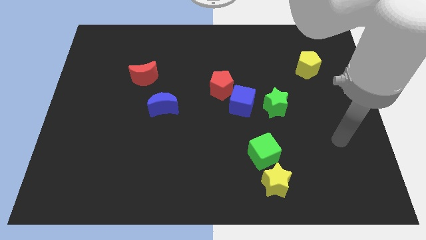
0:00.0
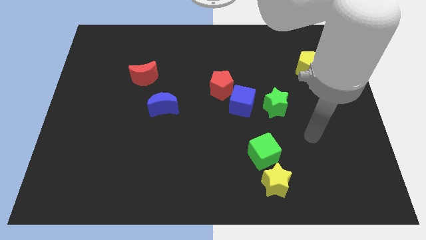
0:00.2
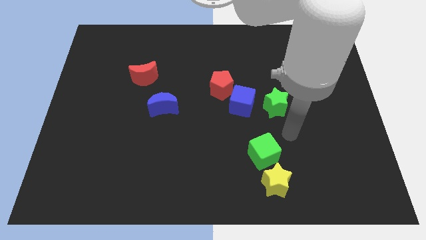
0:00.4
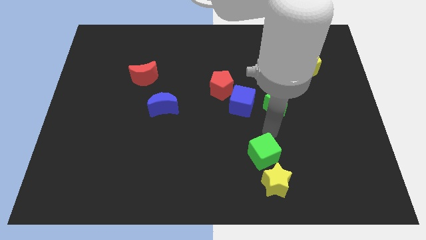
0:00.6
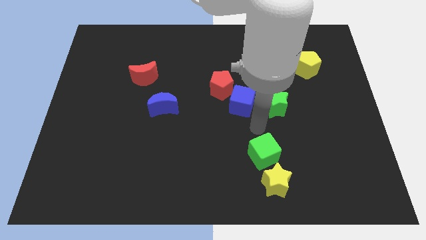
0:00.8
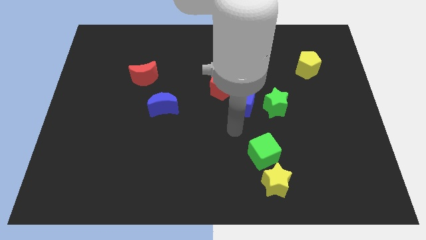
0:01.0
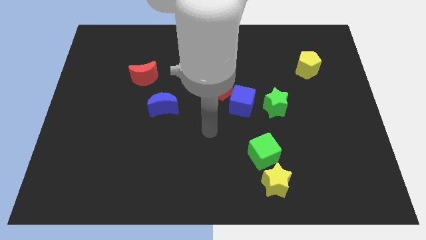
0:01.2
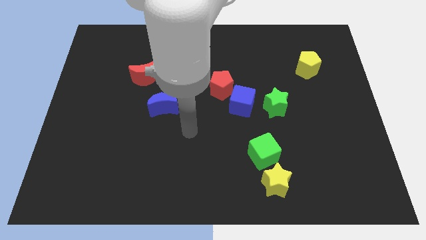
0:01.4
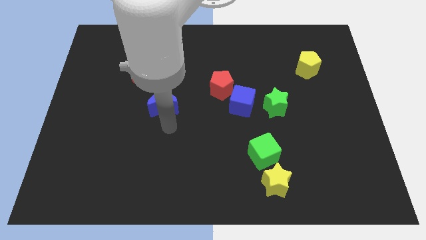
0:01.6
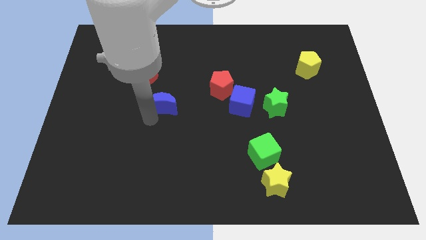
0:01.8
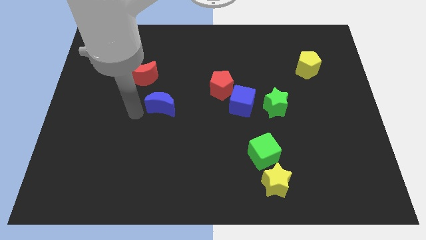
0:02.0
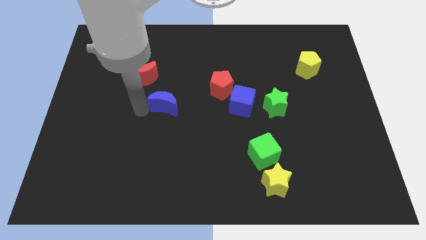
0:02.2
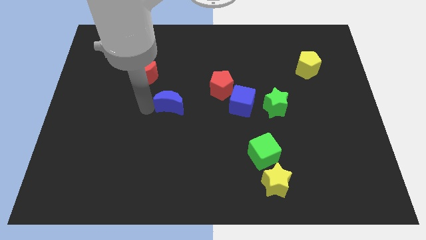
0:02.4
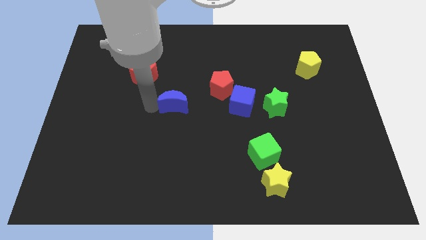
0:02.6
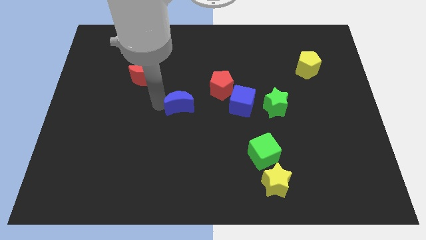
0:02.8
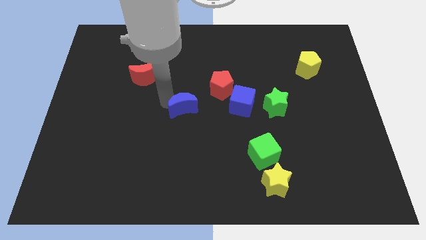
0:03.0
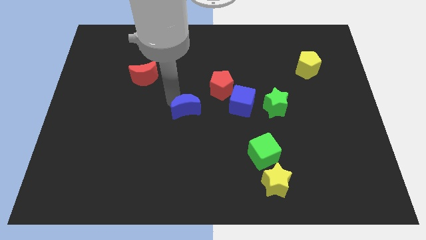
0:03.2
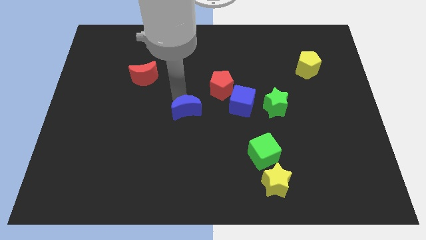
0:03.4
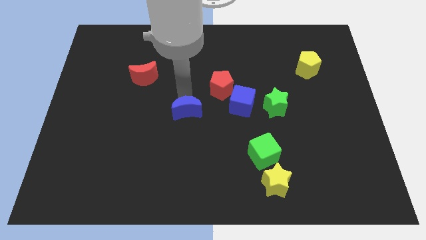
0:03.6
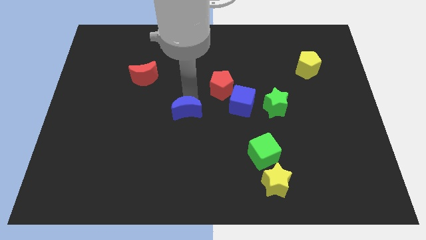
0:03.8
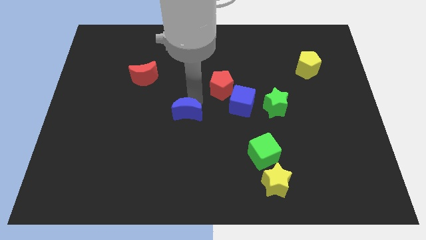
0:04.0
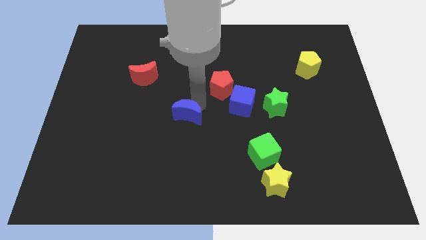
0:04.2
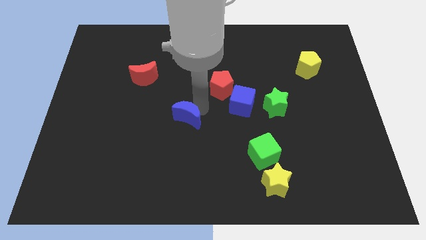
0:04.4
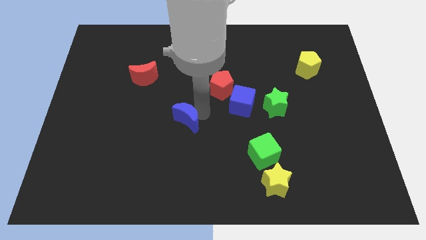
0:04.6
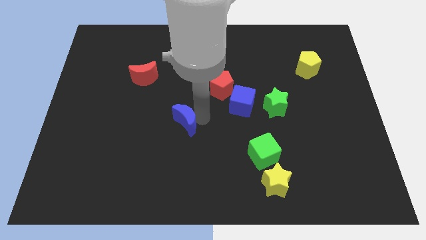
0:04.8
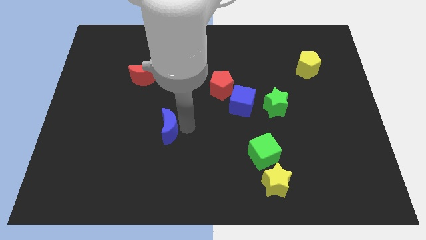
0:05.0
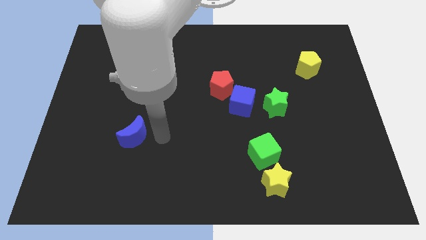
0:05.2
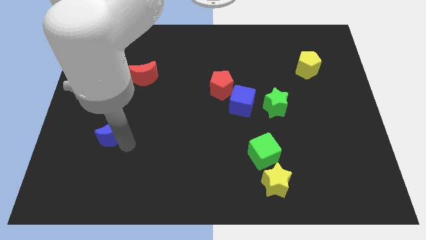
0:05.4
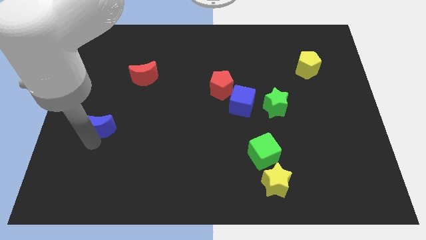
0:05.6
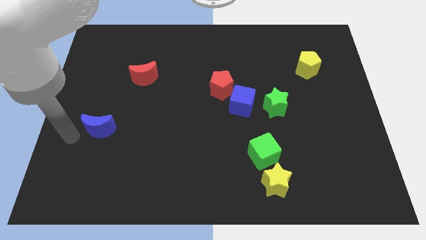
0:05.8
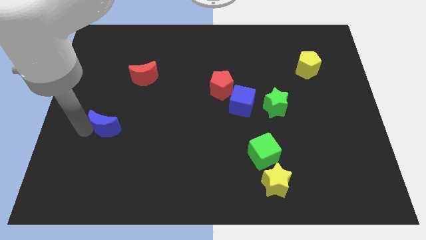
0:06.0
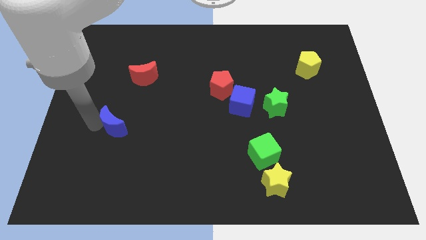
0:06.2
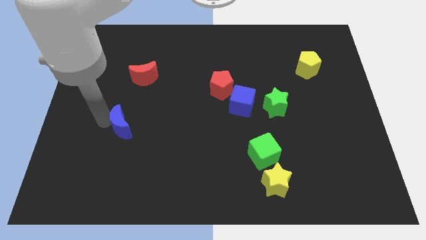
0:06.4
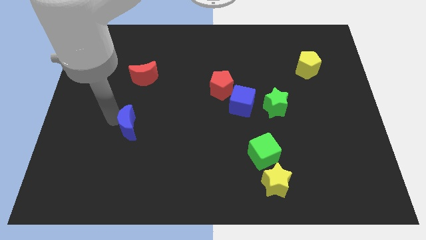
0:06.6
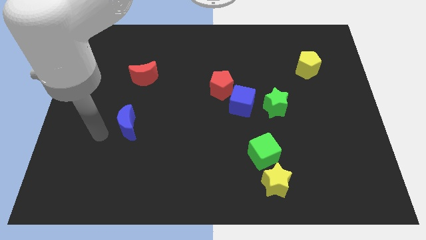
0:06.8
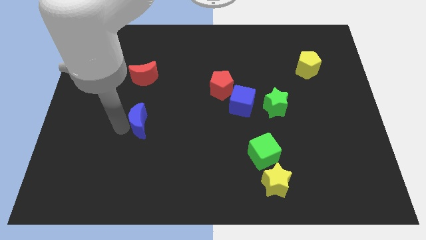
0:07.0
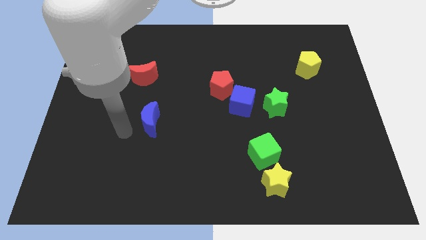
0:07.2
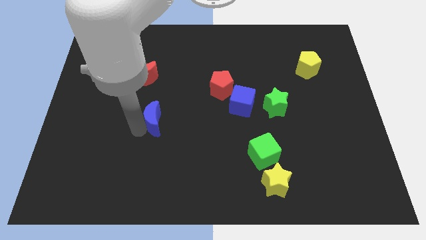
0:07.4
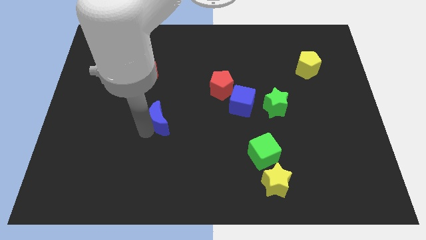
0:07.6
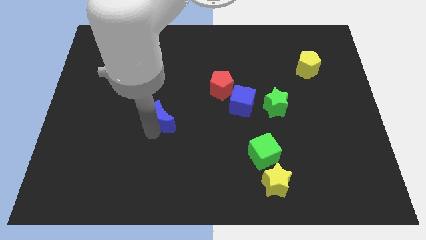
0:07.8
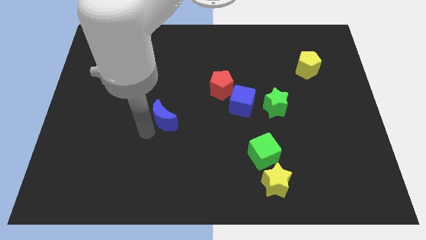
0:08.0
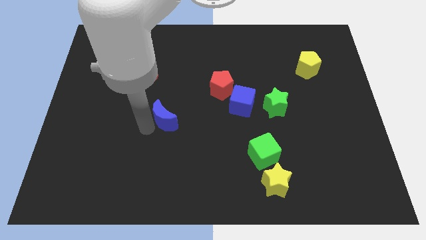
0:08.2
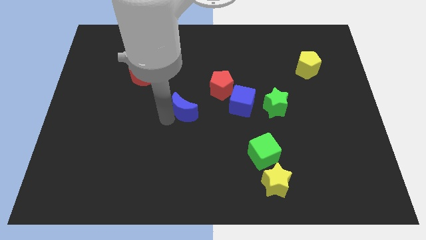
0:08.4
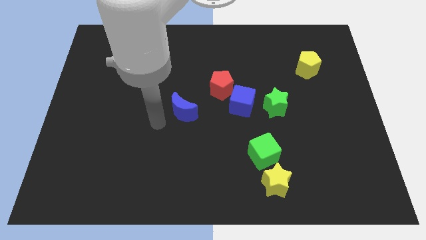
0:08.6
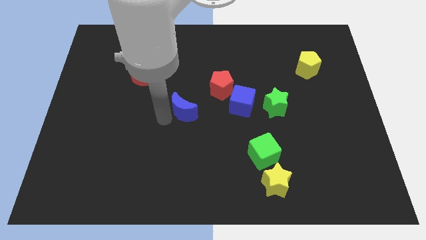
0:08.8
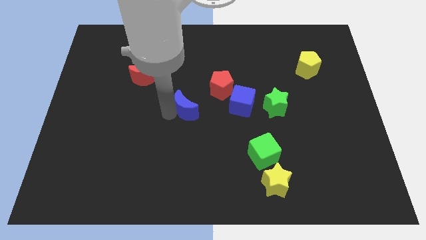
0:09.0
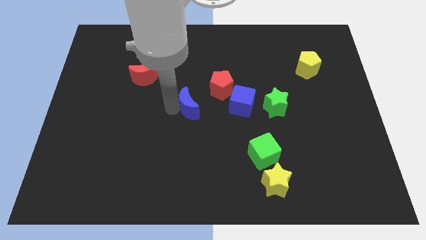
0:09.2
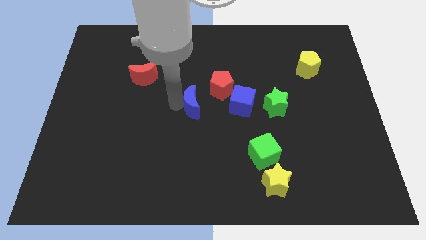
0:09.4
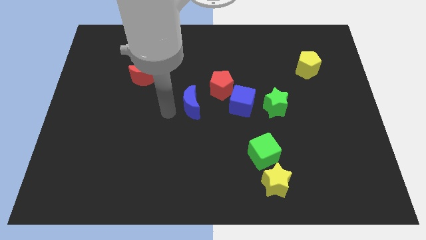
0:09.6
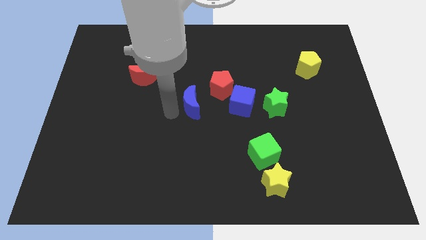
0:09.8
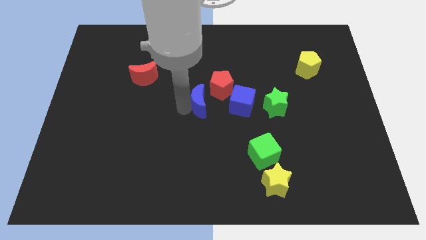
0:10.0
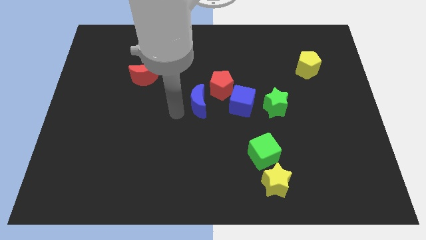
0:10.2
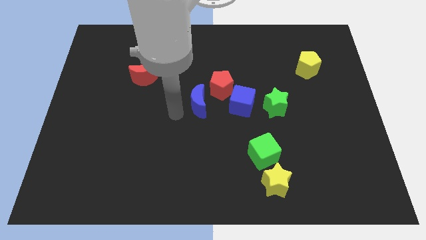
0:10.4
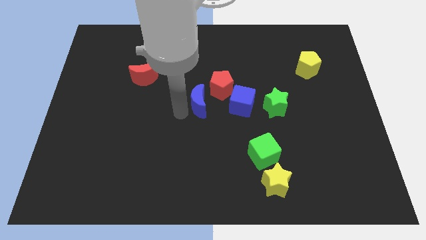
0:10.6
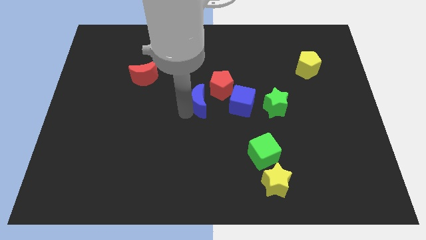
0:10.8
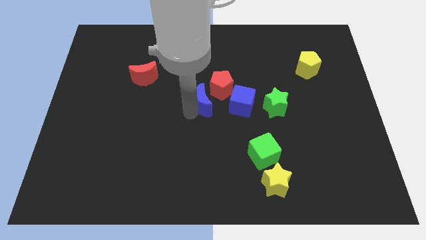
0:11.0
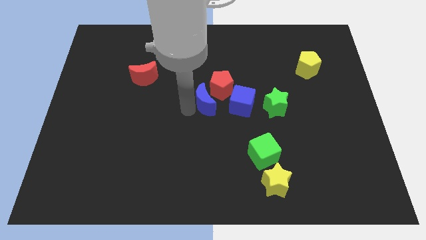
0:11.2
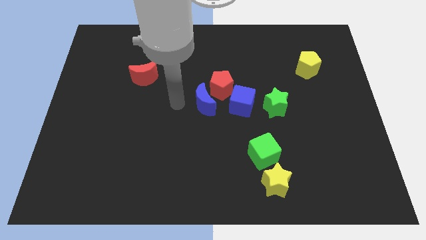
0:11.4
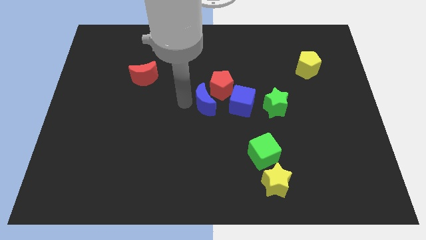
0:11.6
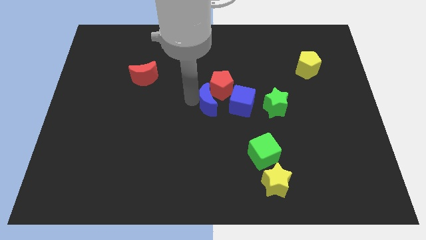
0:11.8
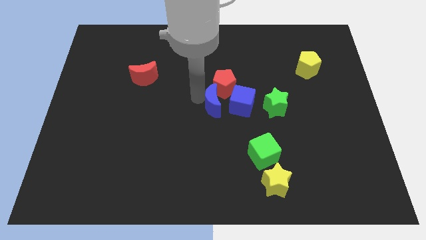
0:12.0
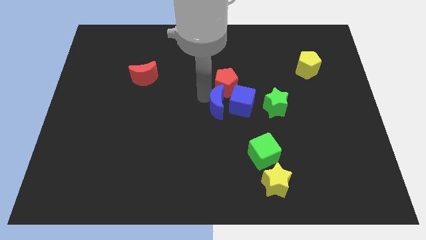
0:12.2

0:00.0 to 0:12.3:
move the blue moon close to the blue cube

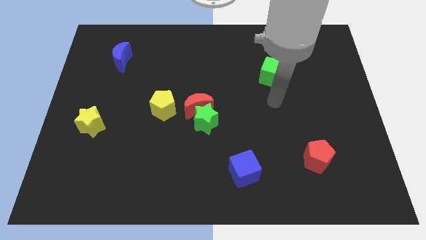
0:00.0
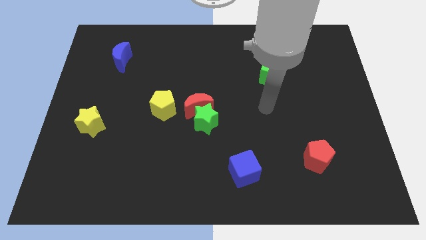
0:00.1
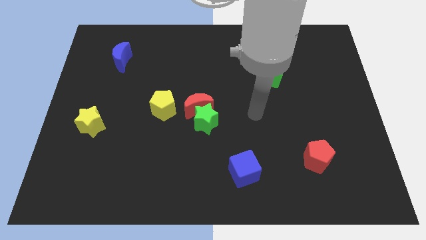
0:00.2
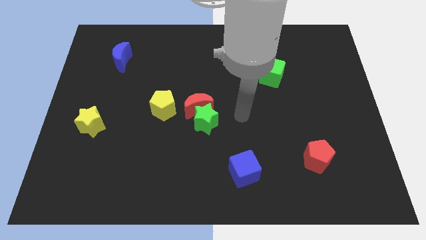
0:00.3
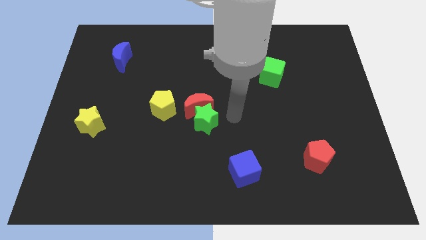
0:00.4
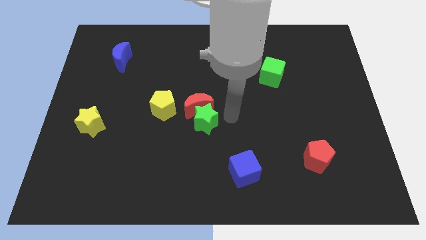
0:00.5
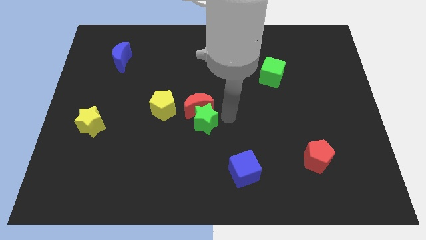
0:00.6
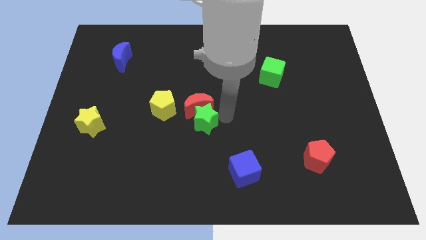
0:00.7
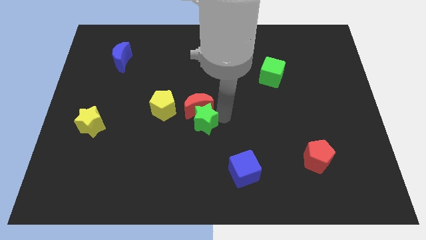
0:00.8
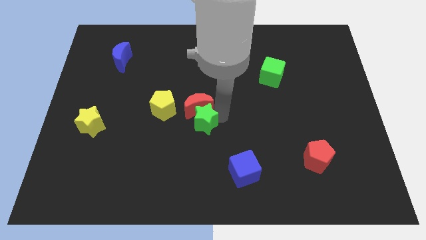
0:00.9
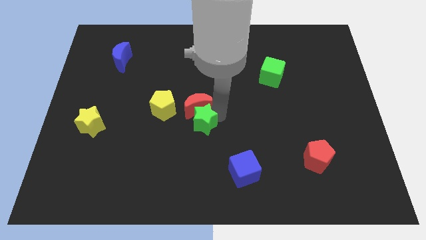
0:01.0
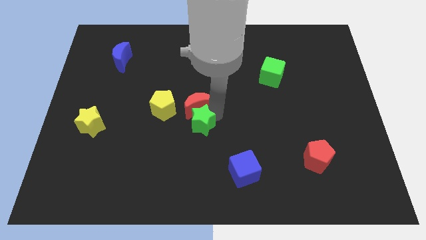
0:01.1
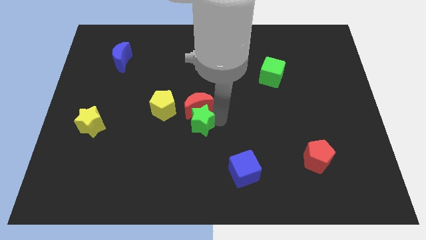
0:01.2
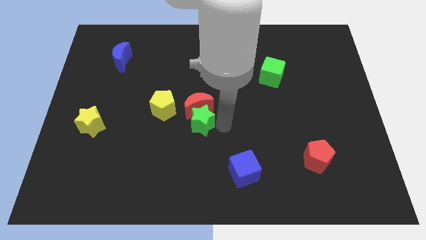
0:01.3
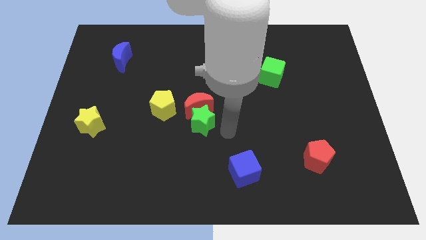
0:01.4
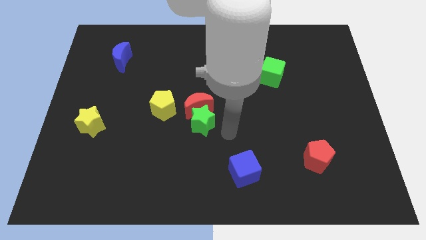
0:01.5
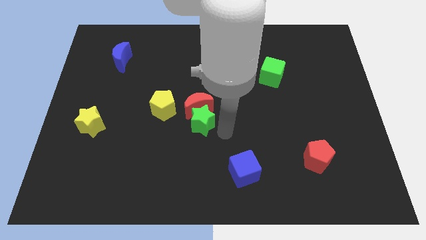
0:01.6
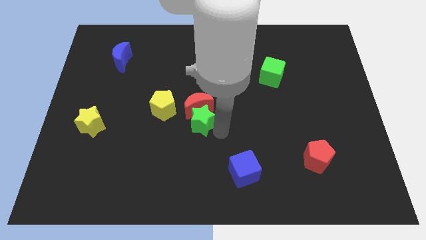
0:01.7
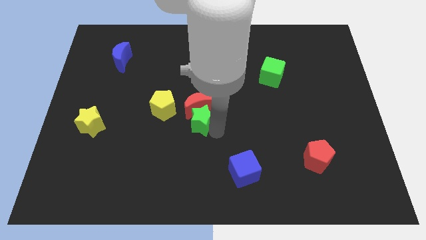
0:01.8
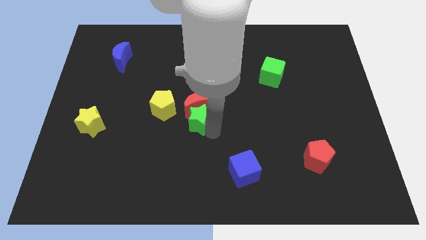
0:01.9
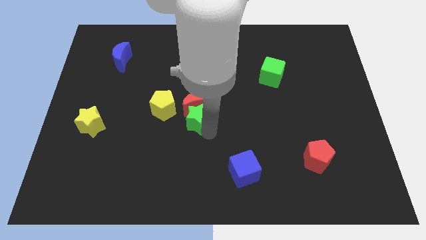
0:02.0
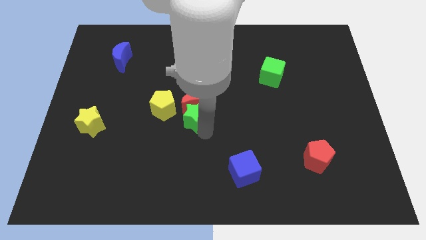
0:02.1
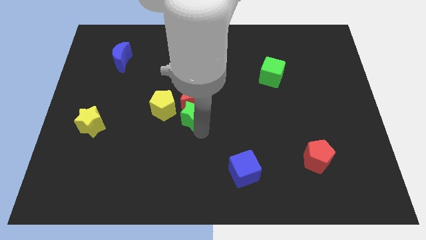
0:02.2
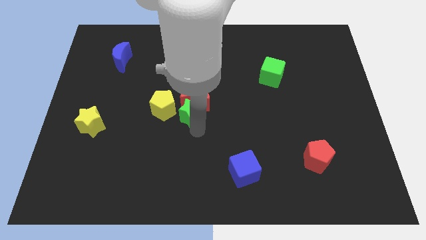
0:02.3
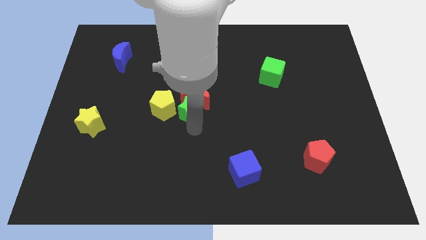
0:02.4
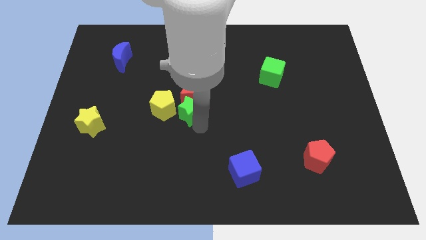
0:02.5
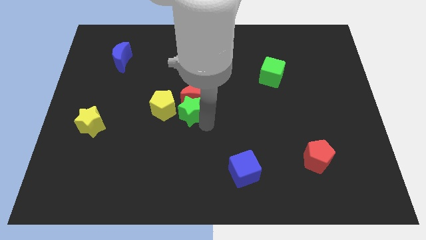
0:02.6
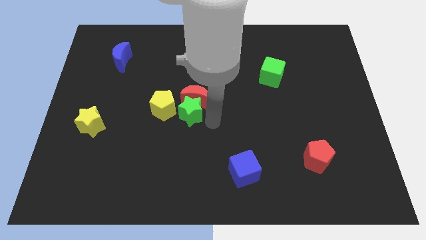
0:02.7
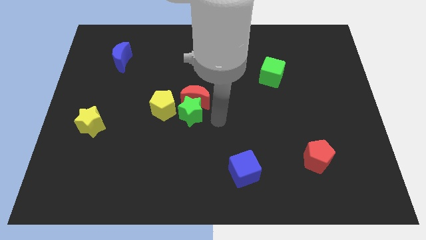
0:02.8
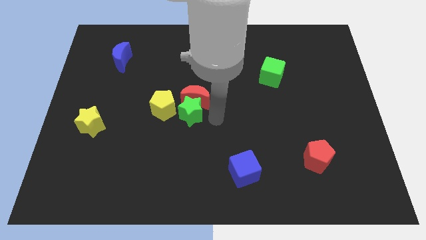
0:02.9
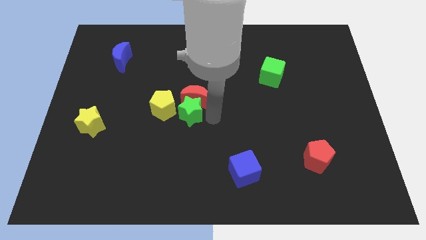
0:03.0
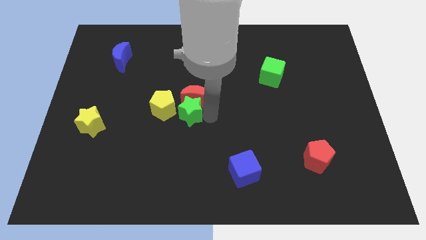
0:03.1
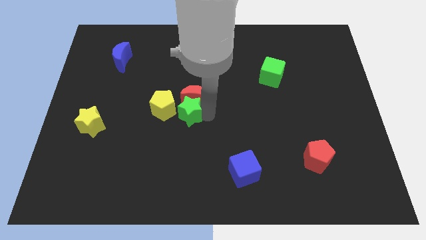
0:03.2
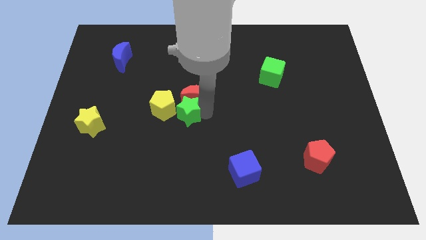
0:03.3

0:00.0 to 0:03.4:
slide the green star next to the yellow pentagon
